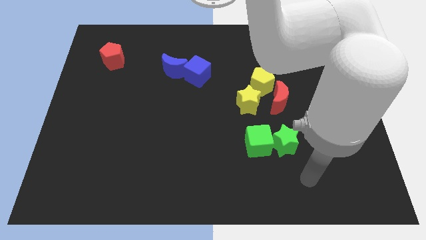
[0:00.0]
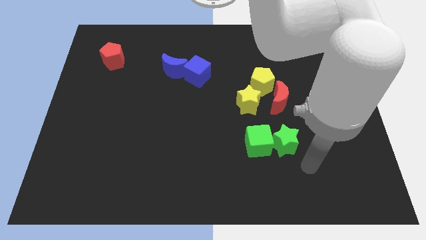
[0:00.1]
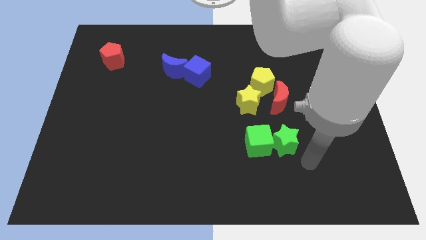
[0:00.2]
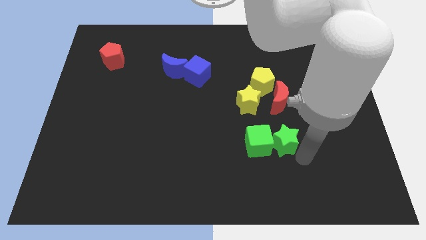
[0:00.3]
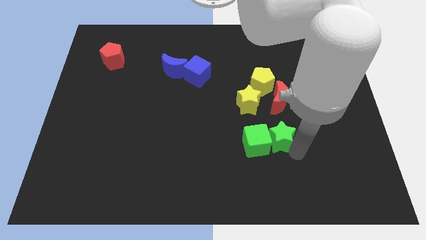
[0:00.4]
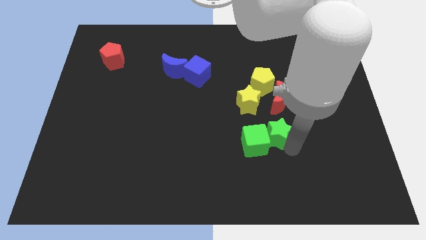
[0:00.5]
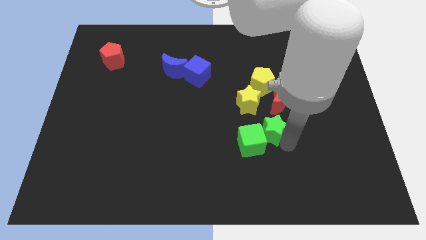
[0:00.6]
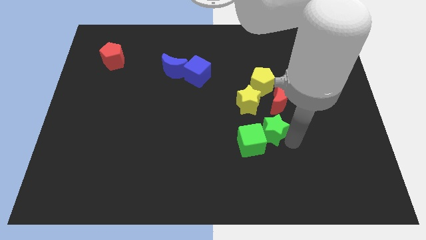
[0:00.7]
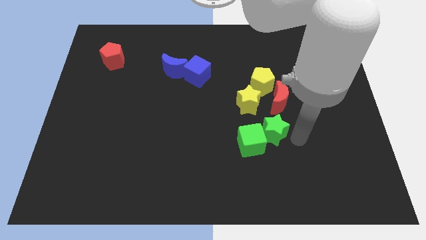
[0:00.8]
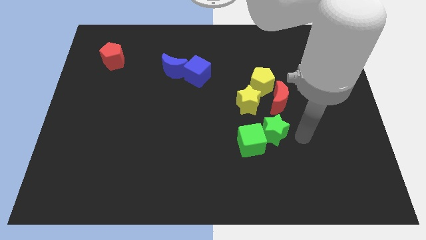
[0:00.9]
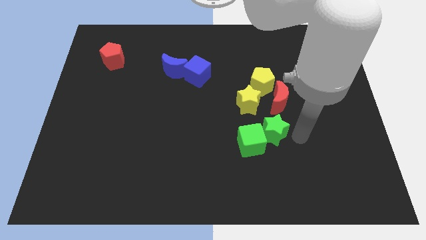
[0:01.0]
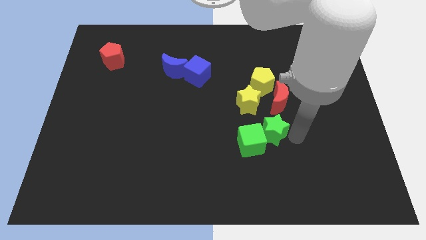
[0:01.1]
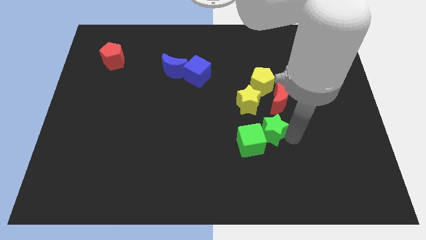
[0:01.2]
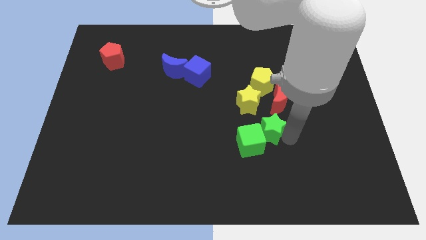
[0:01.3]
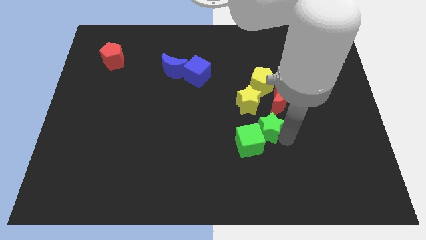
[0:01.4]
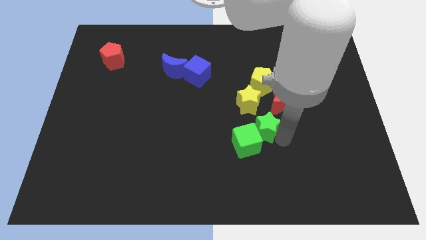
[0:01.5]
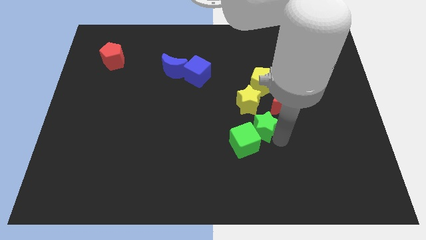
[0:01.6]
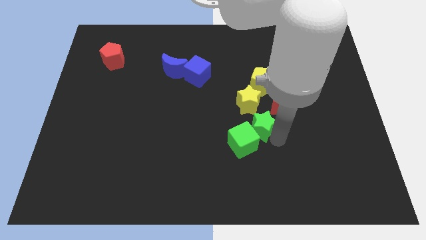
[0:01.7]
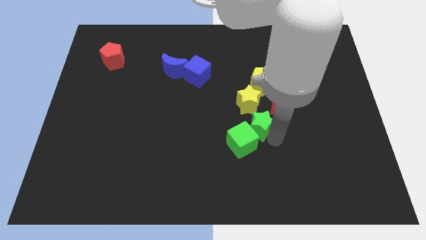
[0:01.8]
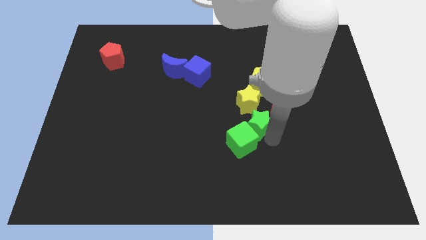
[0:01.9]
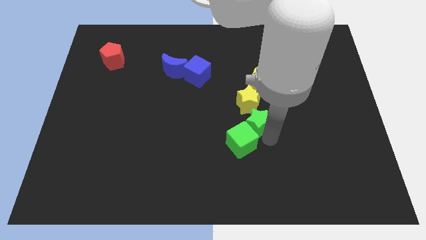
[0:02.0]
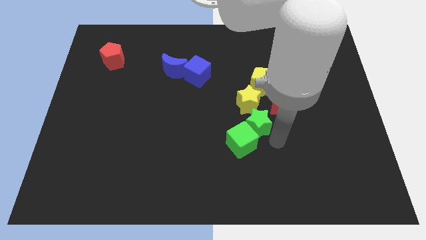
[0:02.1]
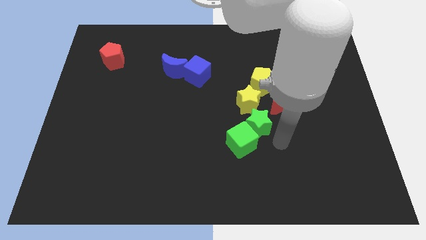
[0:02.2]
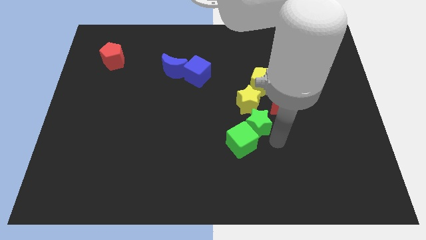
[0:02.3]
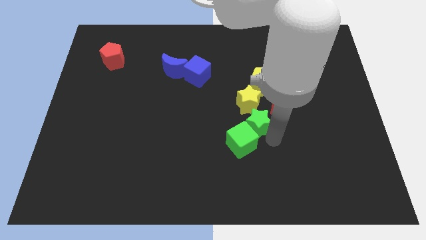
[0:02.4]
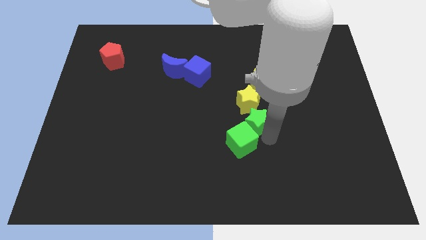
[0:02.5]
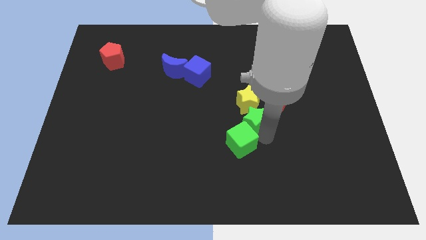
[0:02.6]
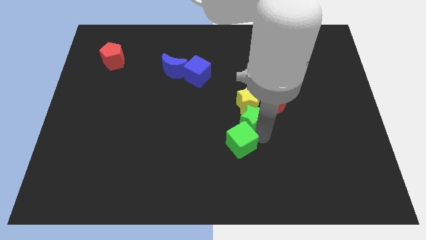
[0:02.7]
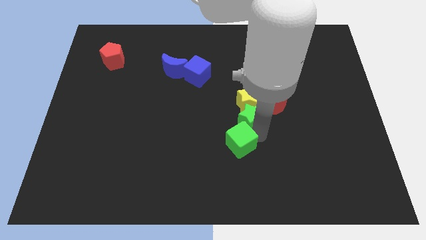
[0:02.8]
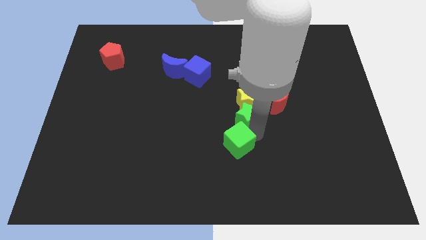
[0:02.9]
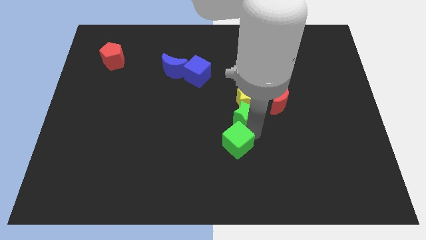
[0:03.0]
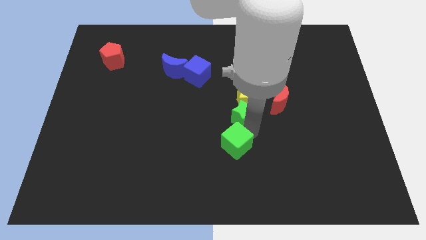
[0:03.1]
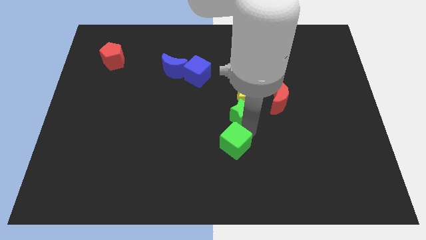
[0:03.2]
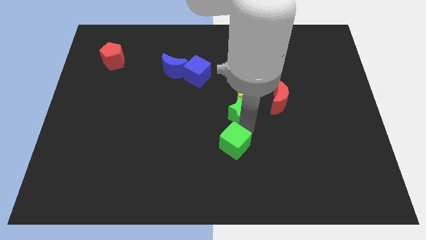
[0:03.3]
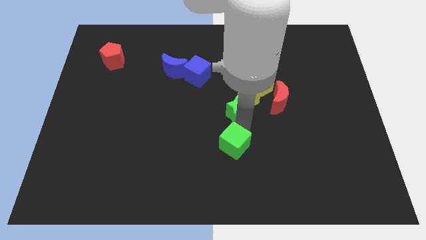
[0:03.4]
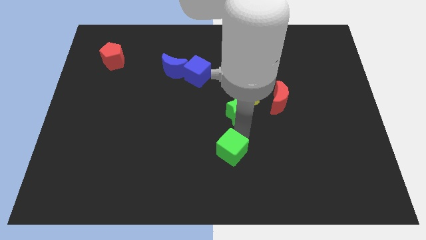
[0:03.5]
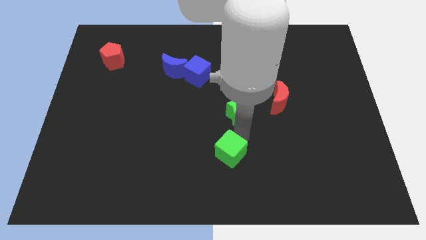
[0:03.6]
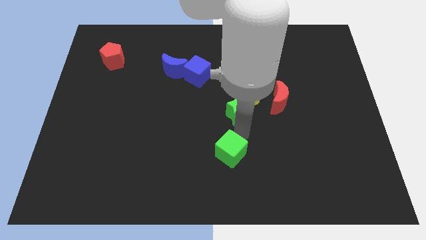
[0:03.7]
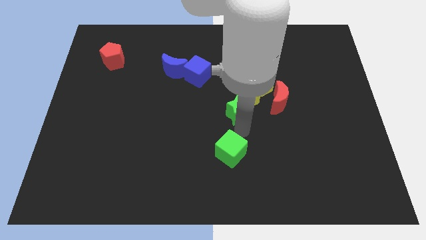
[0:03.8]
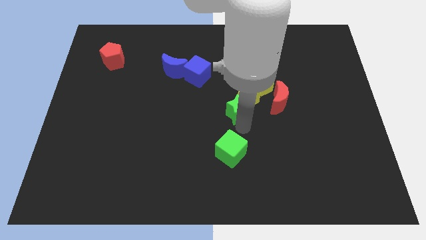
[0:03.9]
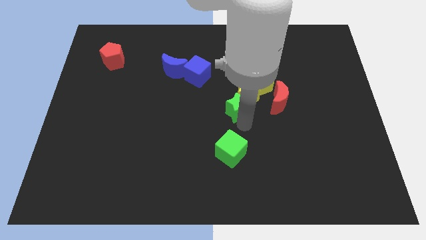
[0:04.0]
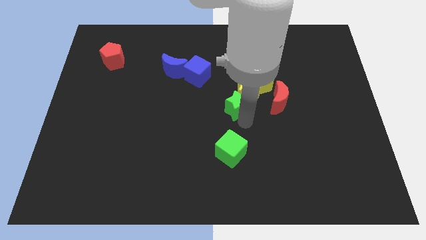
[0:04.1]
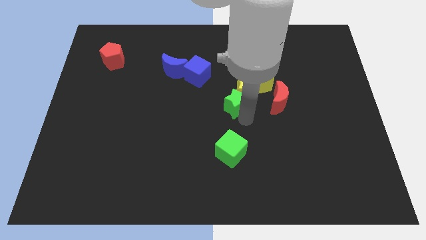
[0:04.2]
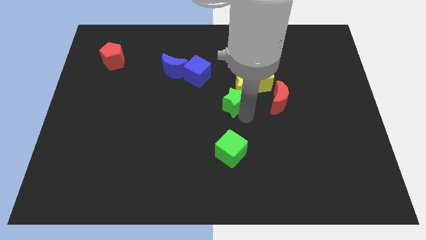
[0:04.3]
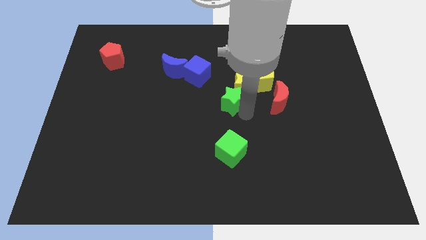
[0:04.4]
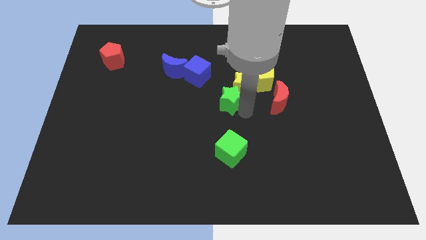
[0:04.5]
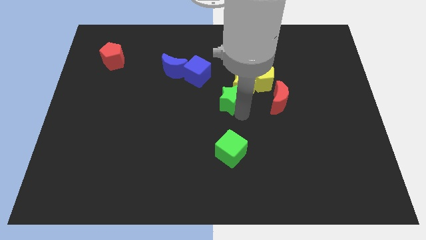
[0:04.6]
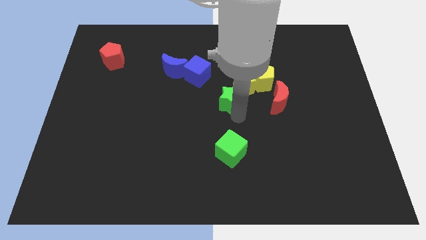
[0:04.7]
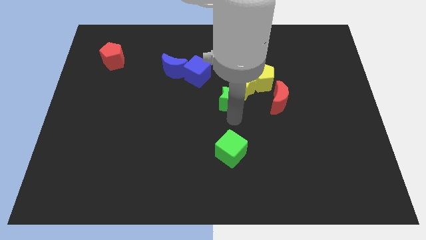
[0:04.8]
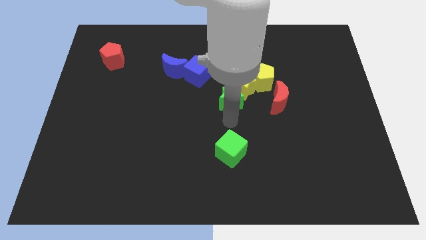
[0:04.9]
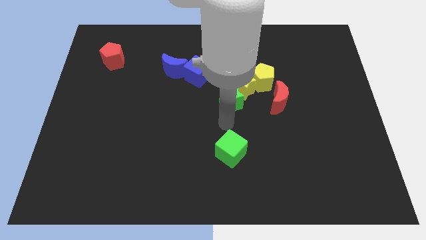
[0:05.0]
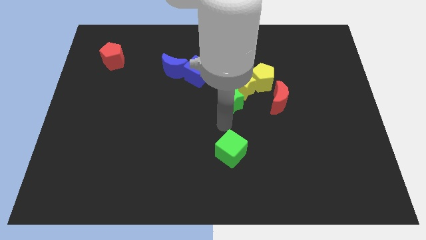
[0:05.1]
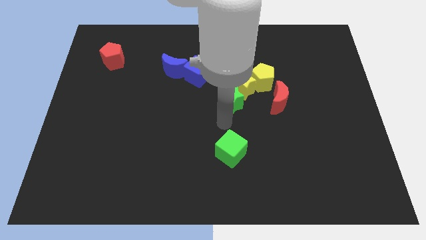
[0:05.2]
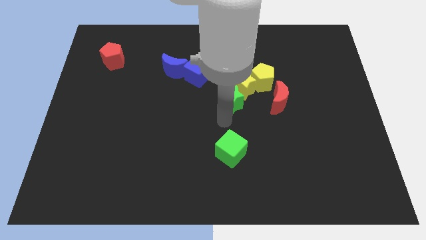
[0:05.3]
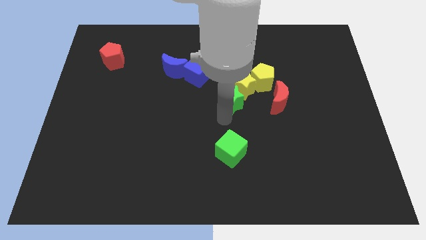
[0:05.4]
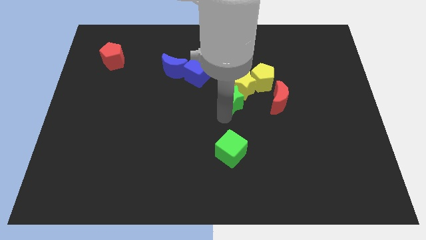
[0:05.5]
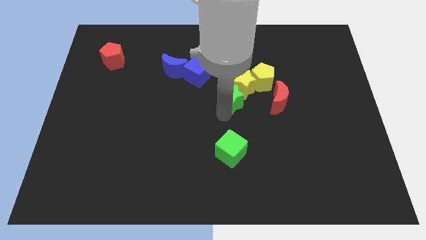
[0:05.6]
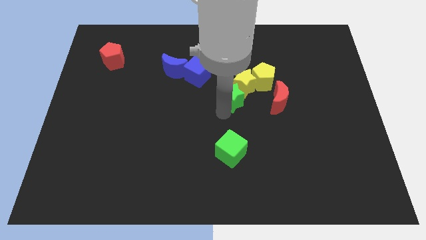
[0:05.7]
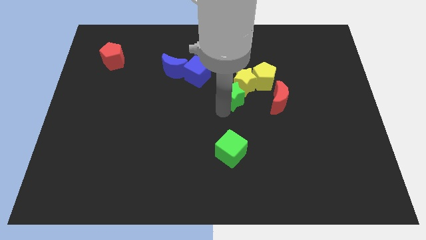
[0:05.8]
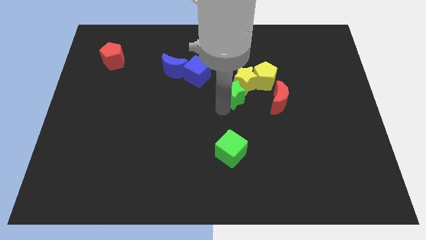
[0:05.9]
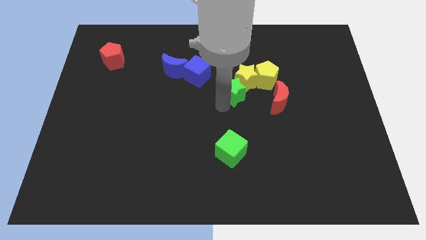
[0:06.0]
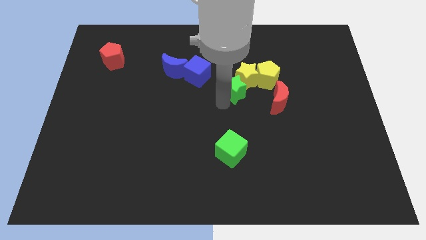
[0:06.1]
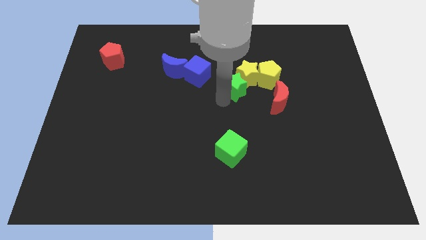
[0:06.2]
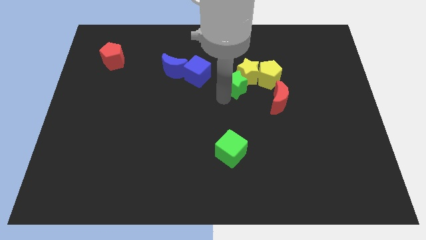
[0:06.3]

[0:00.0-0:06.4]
put the green star to the right side of the blue cube

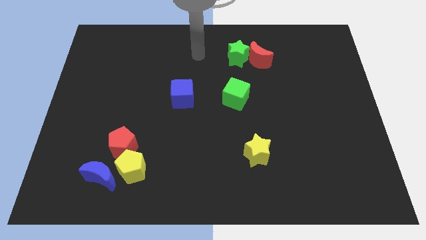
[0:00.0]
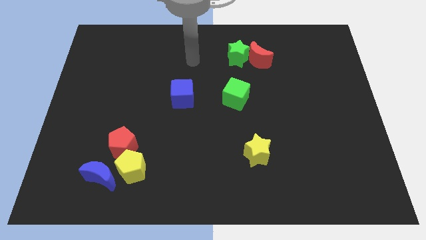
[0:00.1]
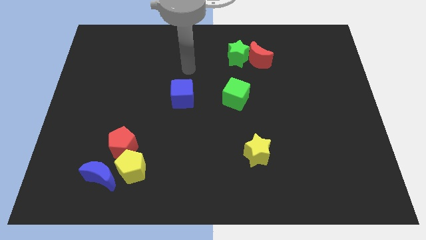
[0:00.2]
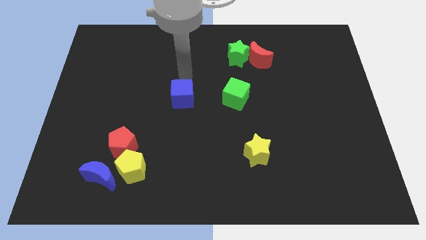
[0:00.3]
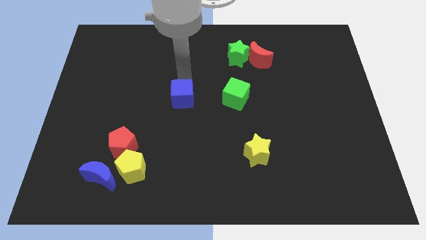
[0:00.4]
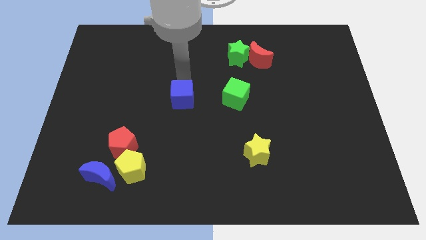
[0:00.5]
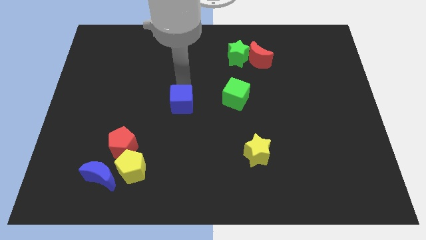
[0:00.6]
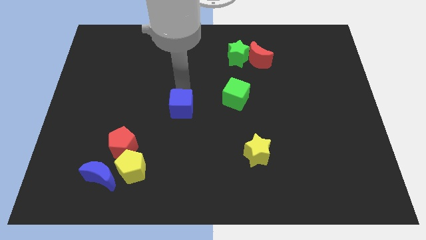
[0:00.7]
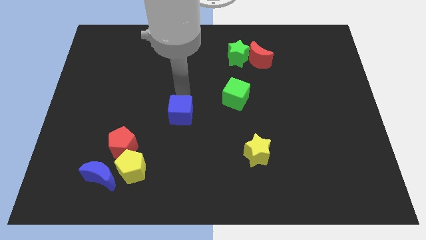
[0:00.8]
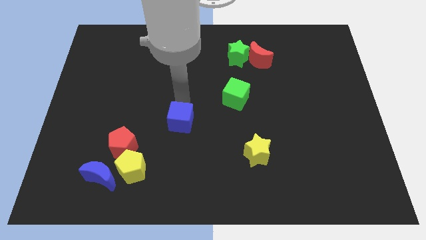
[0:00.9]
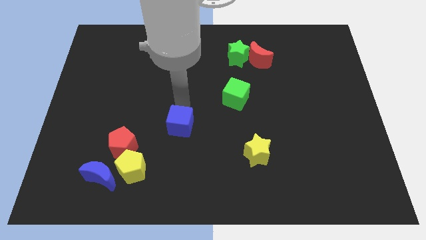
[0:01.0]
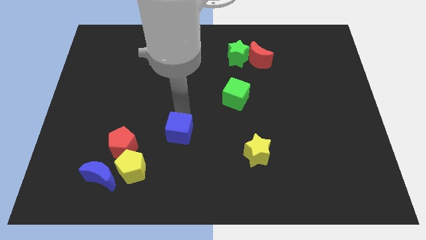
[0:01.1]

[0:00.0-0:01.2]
move the blue cube right of the red pentagon
